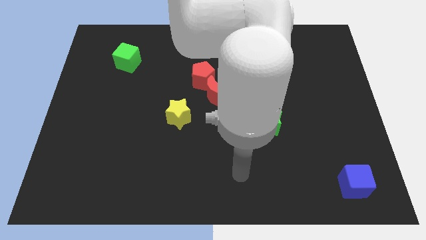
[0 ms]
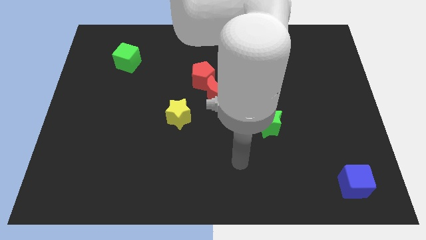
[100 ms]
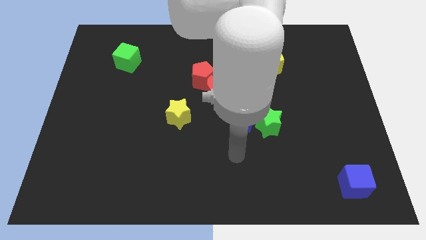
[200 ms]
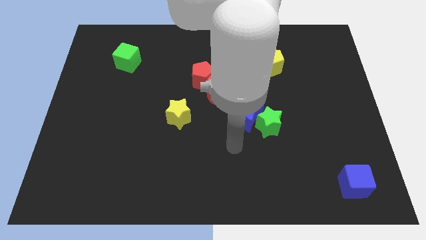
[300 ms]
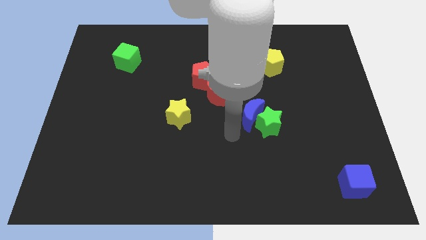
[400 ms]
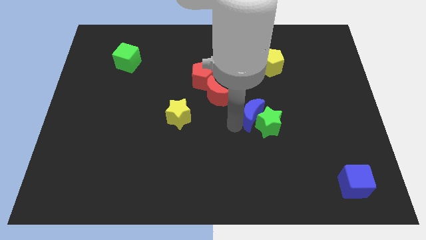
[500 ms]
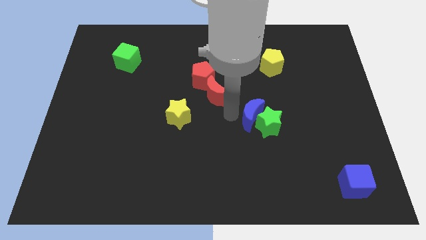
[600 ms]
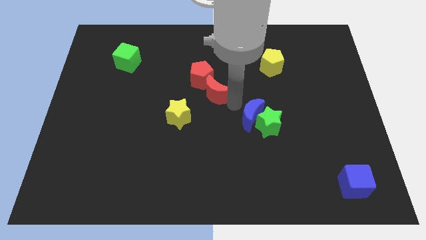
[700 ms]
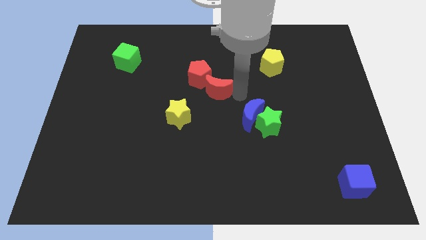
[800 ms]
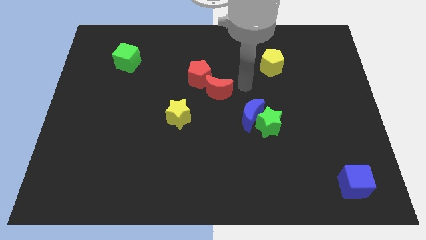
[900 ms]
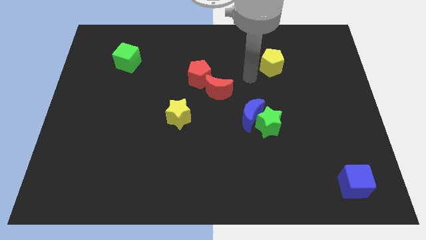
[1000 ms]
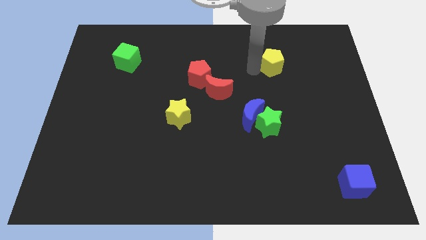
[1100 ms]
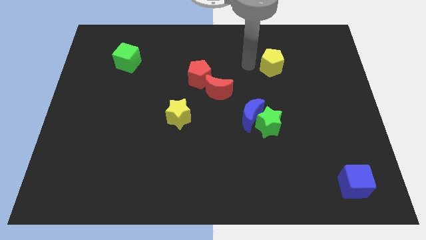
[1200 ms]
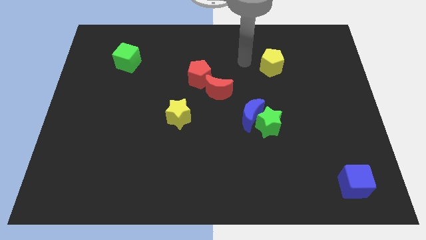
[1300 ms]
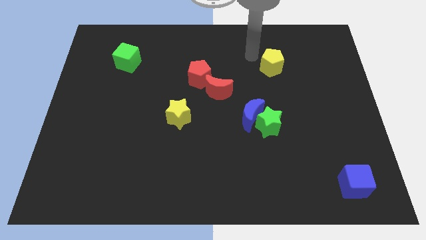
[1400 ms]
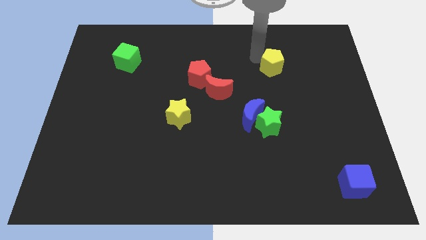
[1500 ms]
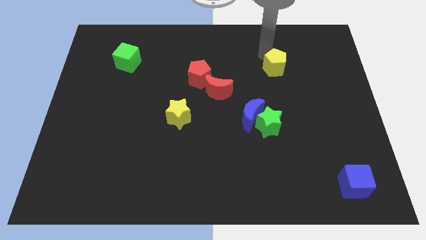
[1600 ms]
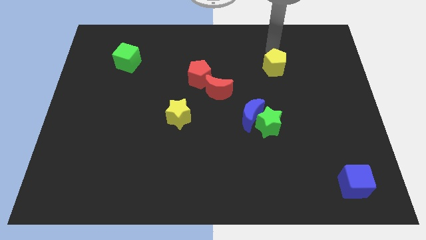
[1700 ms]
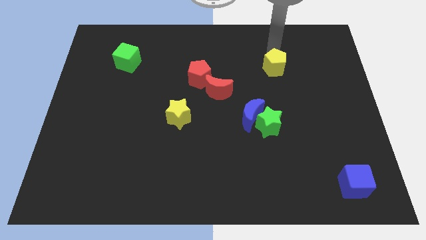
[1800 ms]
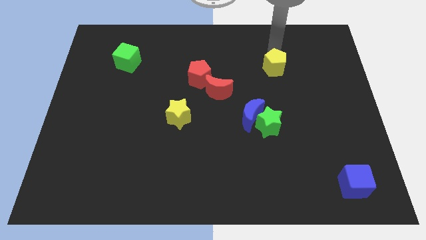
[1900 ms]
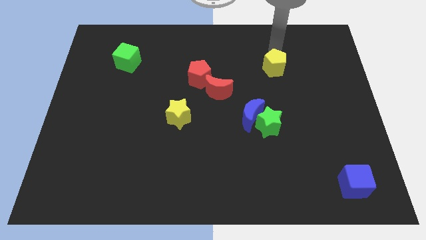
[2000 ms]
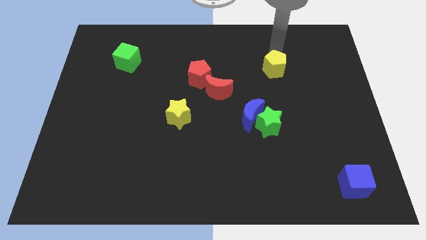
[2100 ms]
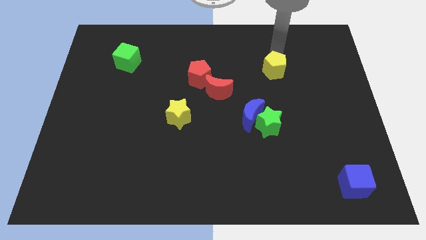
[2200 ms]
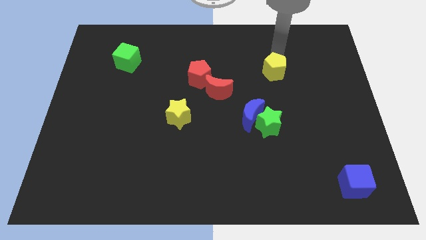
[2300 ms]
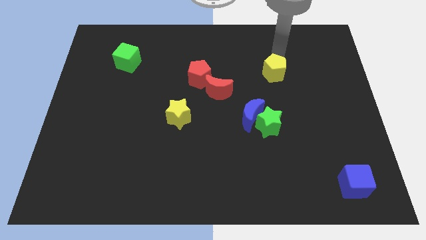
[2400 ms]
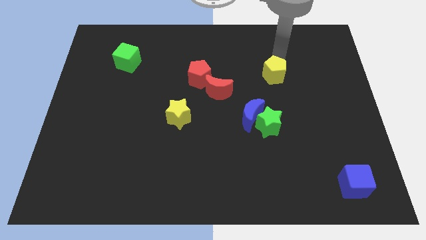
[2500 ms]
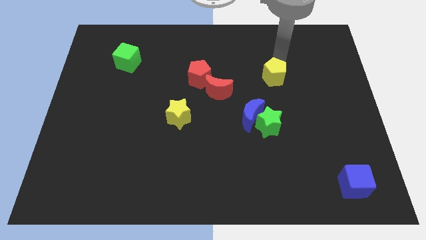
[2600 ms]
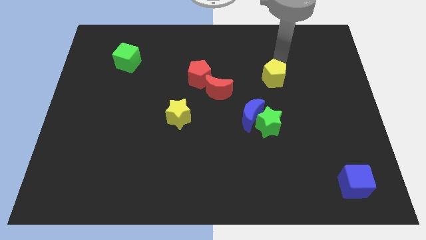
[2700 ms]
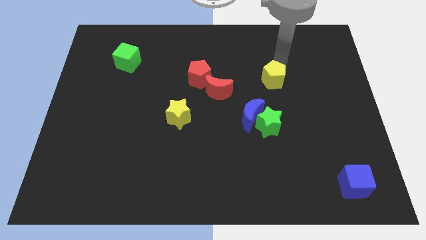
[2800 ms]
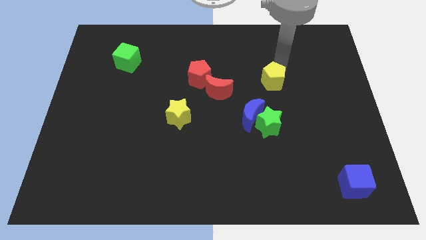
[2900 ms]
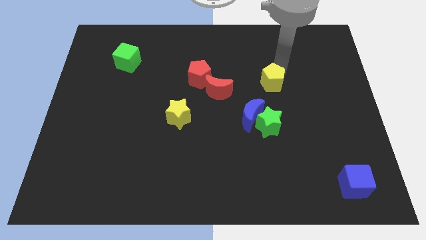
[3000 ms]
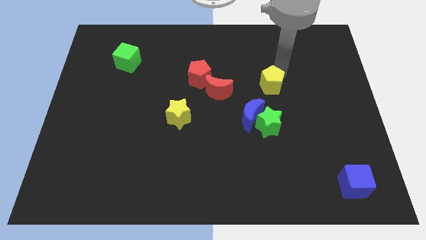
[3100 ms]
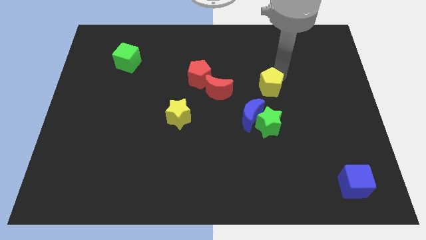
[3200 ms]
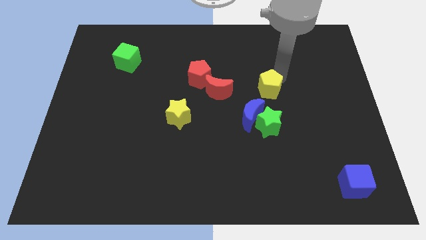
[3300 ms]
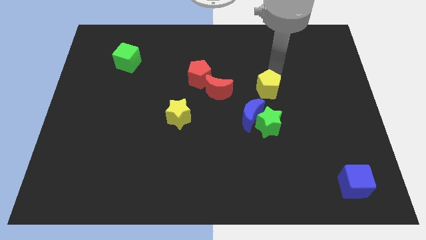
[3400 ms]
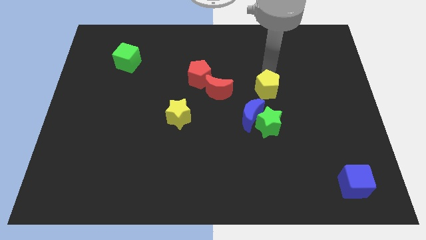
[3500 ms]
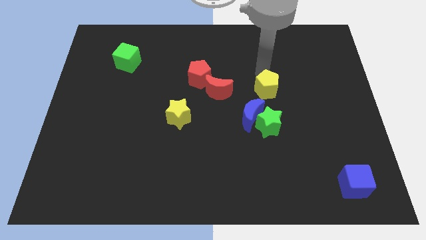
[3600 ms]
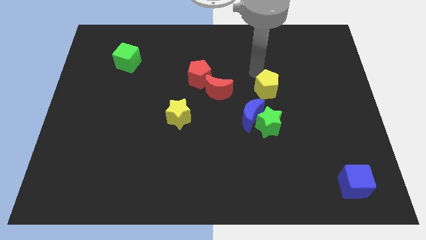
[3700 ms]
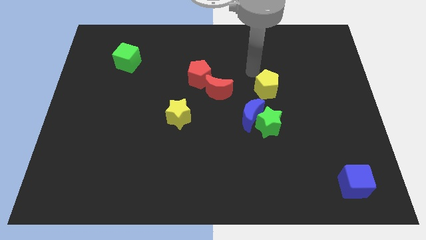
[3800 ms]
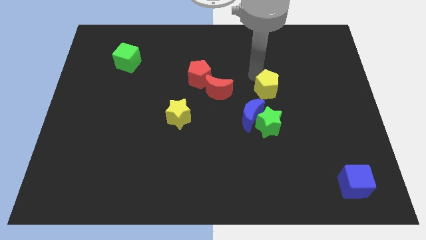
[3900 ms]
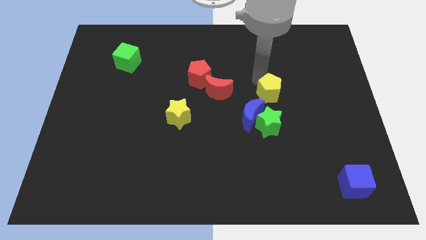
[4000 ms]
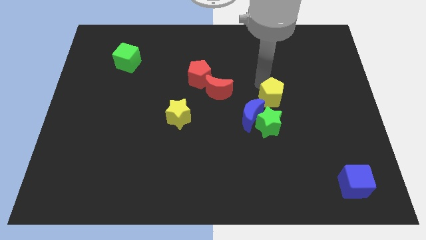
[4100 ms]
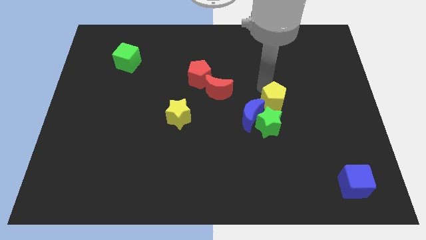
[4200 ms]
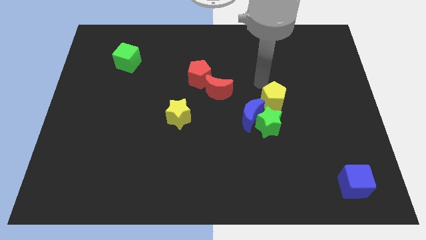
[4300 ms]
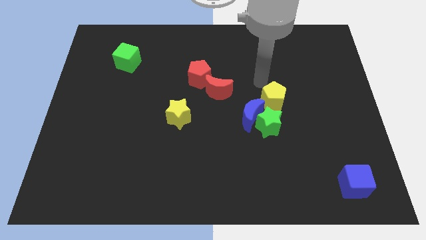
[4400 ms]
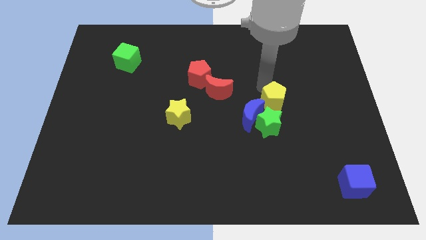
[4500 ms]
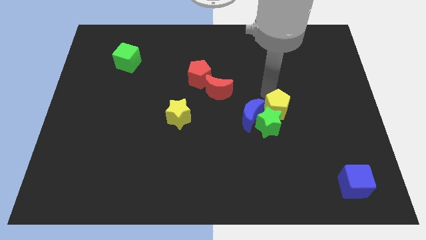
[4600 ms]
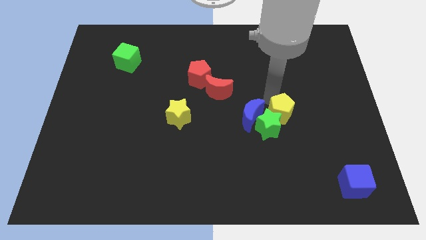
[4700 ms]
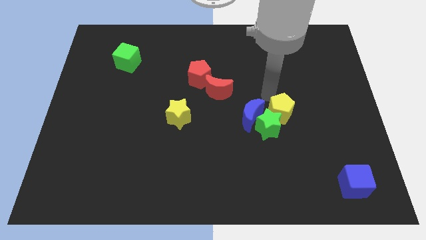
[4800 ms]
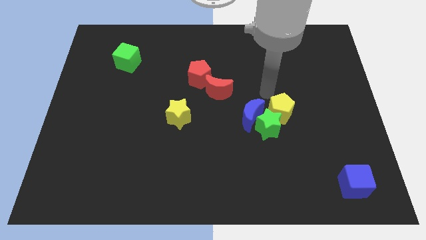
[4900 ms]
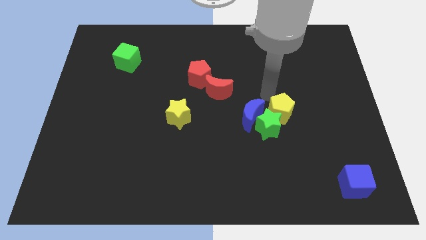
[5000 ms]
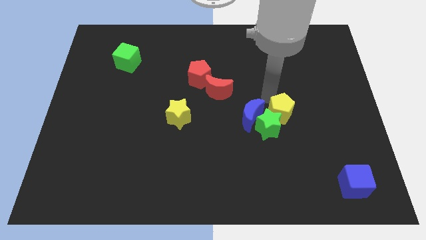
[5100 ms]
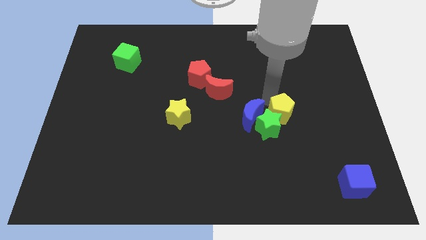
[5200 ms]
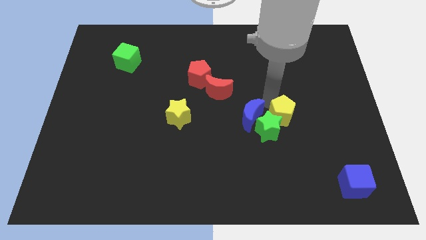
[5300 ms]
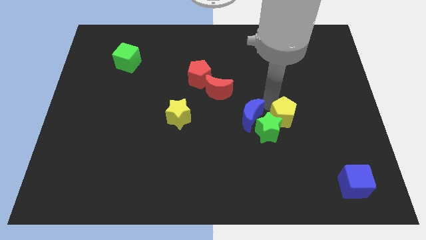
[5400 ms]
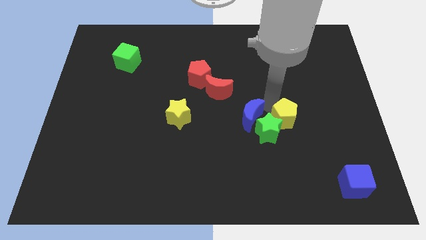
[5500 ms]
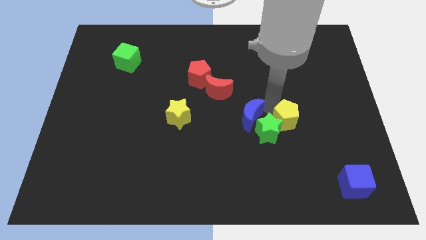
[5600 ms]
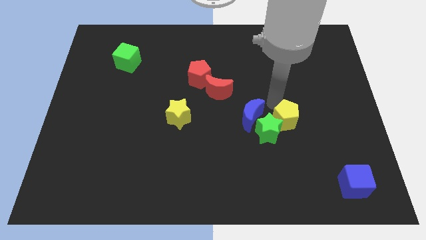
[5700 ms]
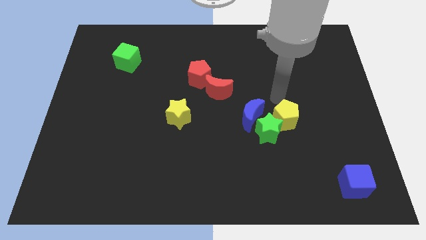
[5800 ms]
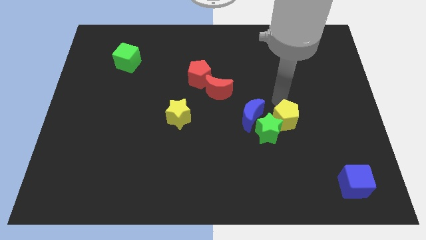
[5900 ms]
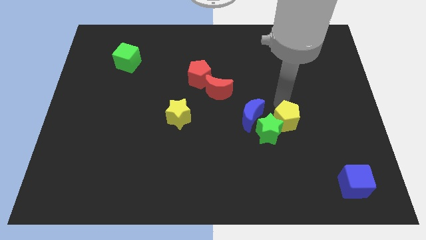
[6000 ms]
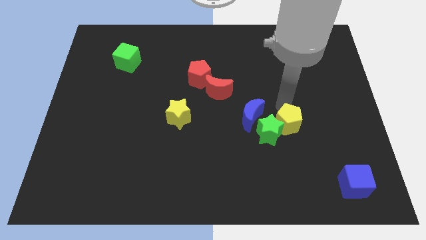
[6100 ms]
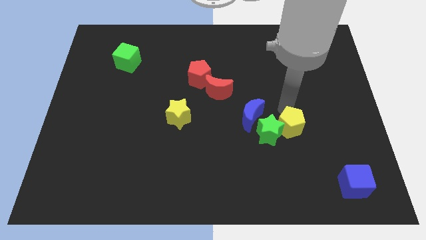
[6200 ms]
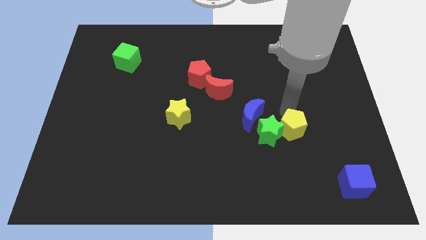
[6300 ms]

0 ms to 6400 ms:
put the yellow pentagon to the bottom right of the green star

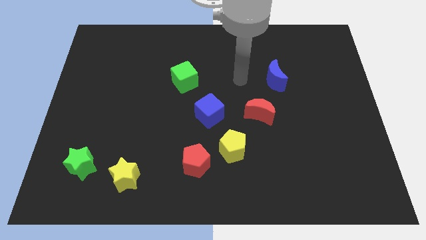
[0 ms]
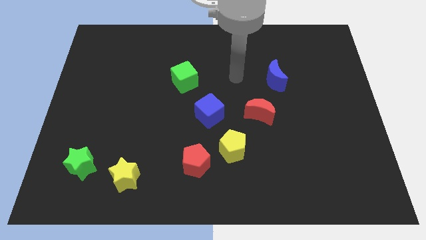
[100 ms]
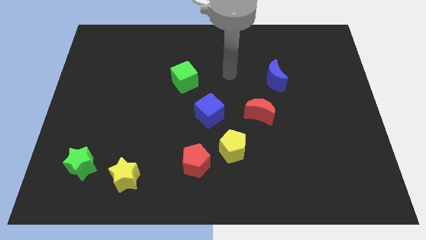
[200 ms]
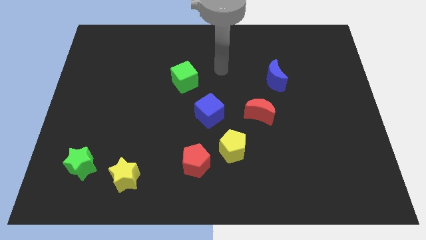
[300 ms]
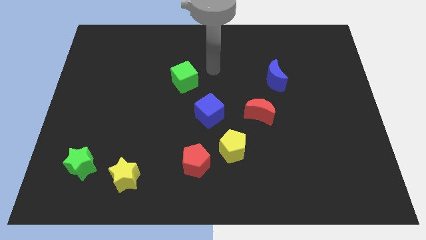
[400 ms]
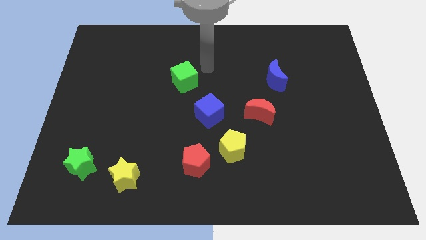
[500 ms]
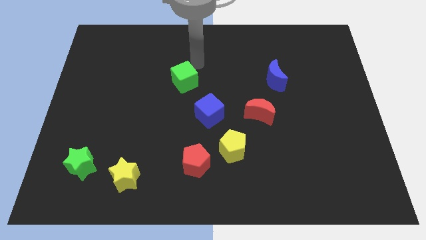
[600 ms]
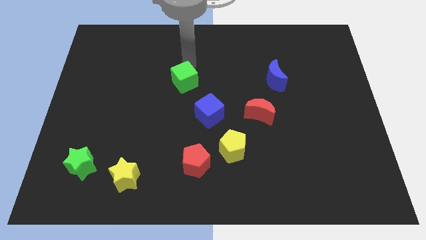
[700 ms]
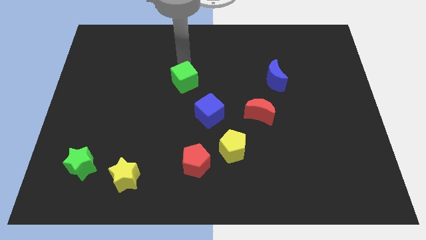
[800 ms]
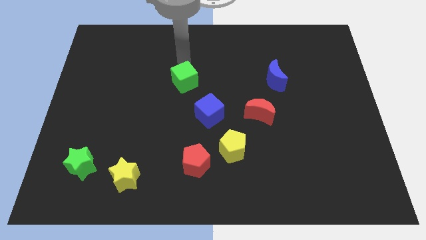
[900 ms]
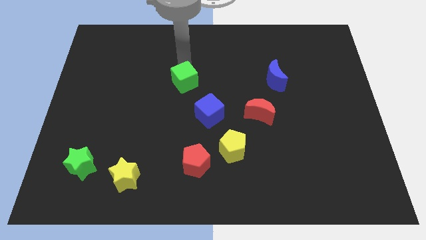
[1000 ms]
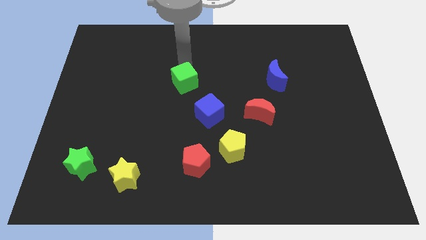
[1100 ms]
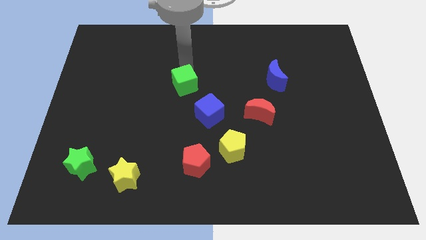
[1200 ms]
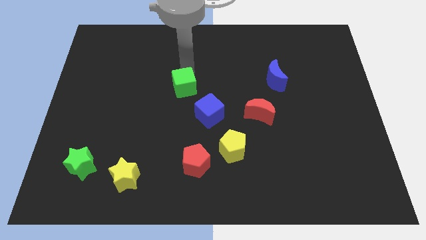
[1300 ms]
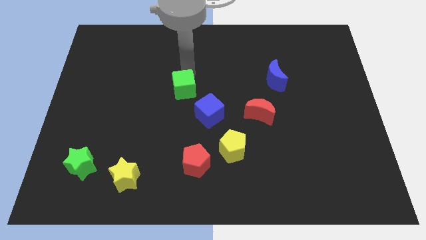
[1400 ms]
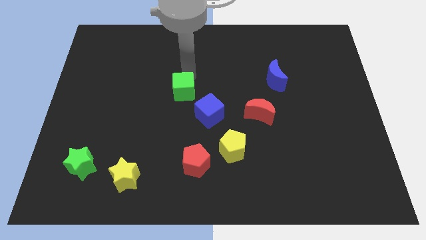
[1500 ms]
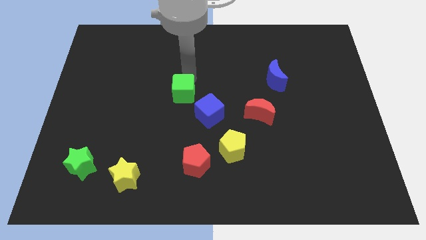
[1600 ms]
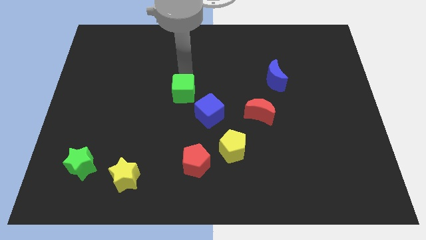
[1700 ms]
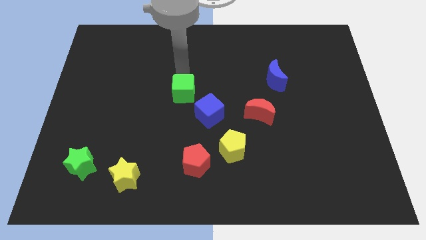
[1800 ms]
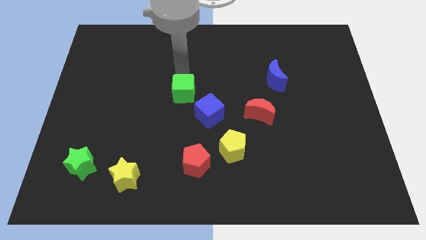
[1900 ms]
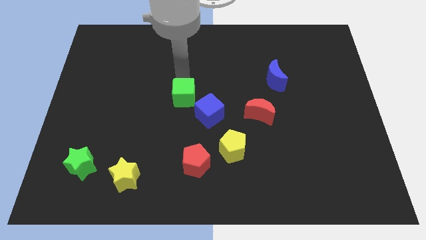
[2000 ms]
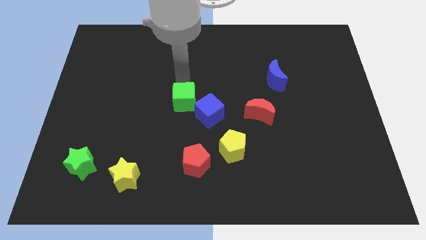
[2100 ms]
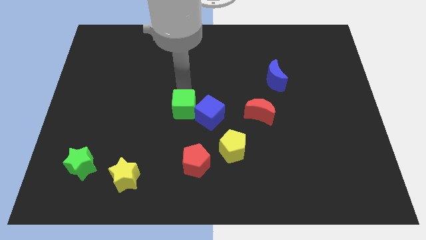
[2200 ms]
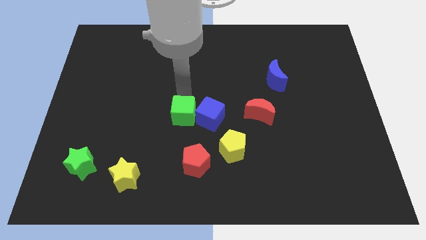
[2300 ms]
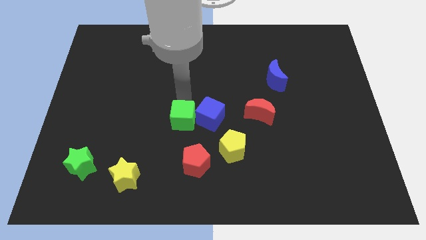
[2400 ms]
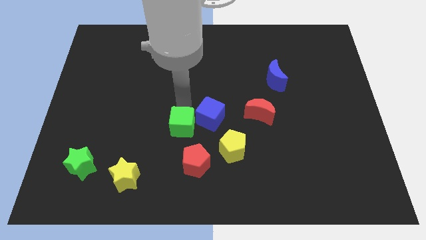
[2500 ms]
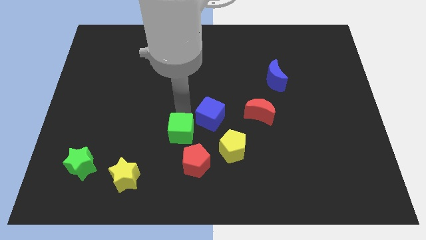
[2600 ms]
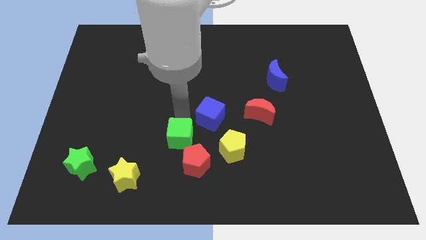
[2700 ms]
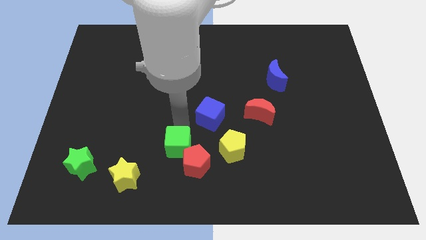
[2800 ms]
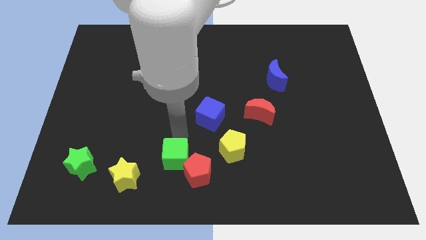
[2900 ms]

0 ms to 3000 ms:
move the green cube to the right side of the yellow star
